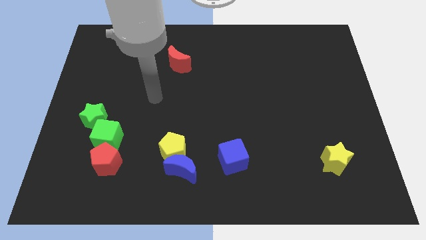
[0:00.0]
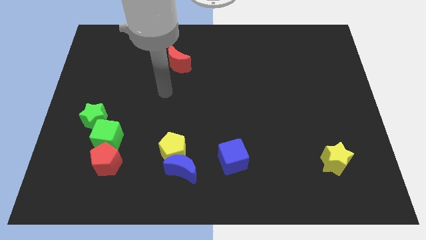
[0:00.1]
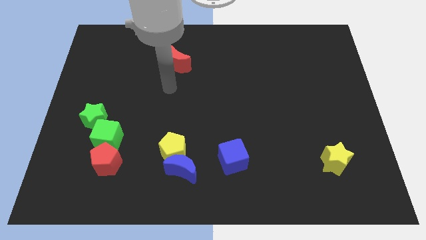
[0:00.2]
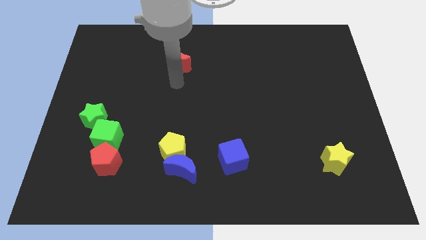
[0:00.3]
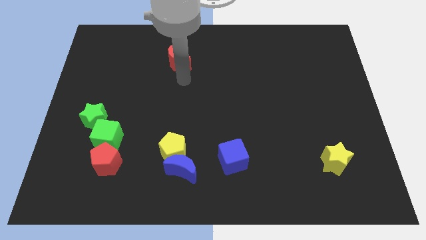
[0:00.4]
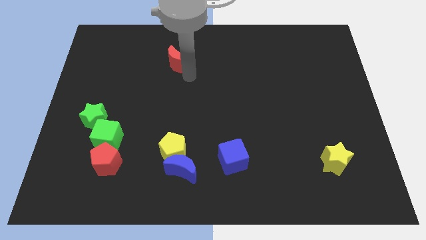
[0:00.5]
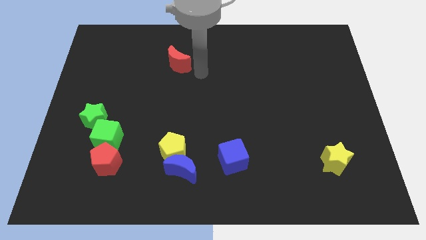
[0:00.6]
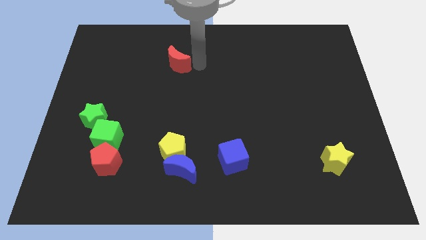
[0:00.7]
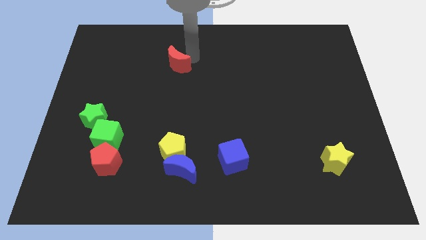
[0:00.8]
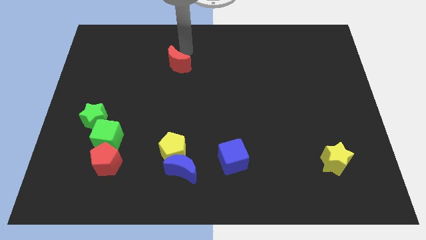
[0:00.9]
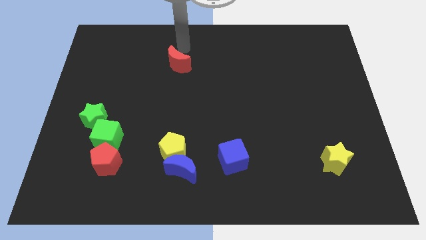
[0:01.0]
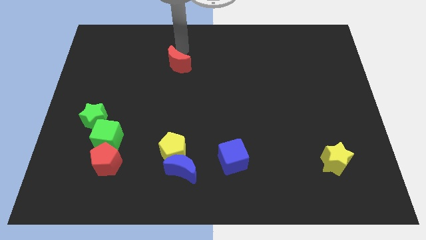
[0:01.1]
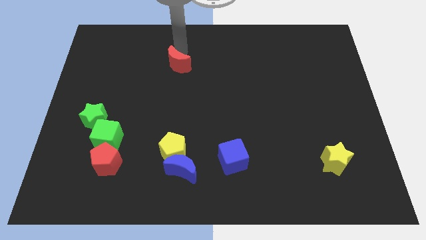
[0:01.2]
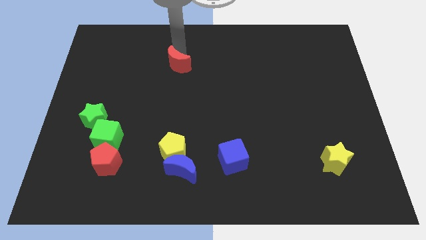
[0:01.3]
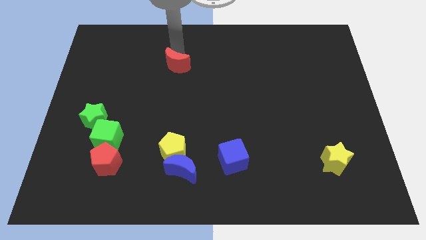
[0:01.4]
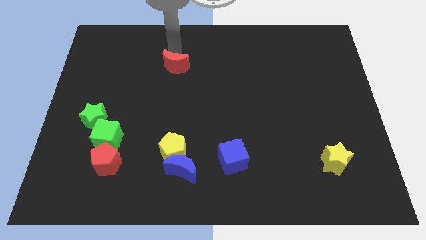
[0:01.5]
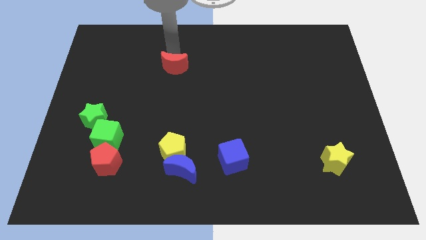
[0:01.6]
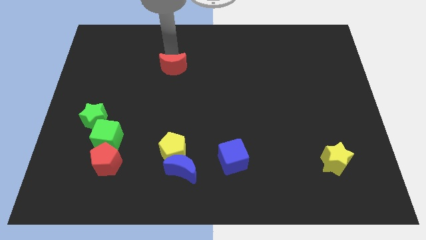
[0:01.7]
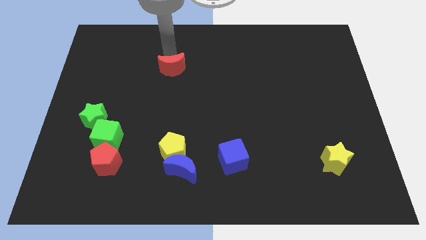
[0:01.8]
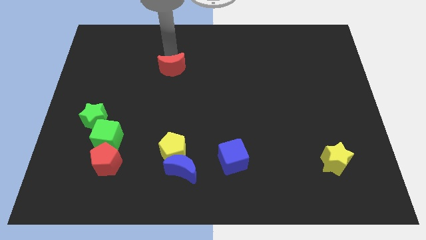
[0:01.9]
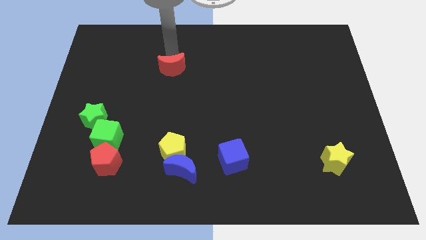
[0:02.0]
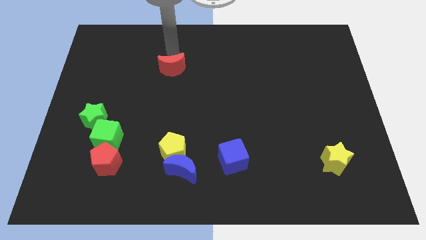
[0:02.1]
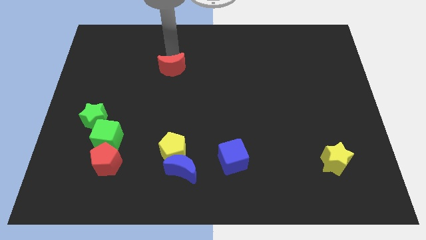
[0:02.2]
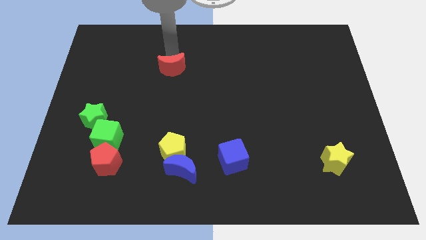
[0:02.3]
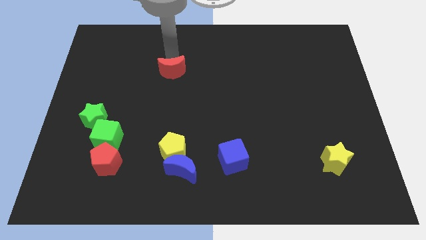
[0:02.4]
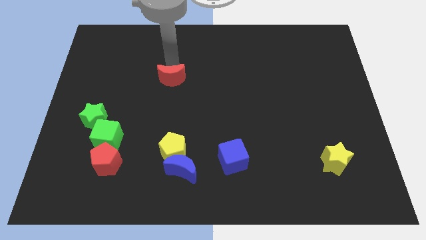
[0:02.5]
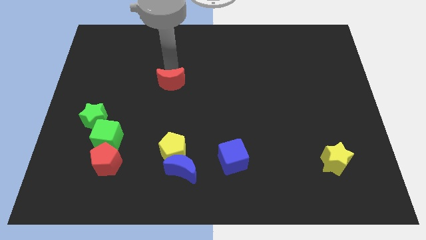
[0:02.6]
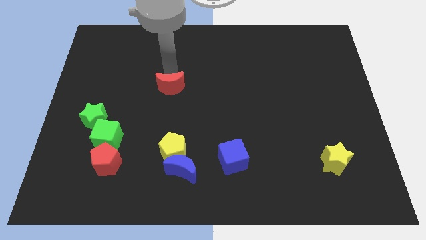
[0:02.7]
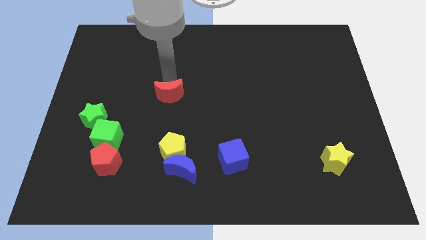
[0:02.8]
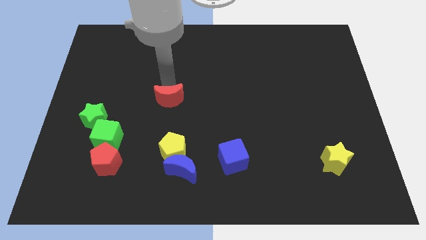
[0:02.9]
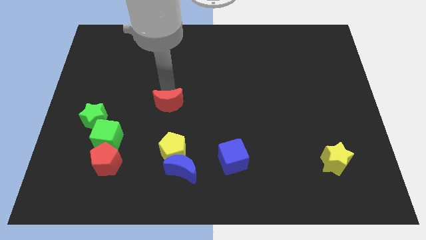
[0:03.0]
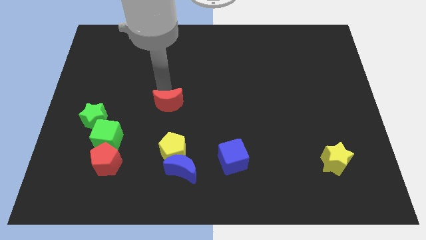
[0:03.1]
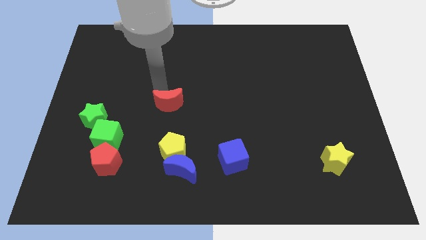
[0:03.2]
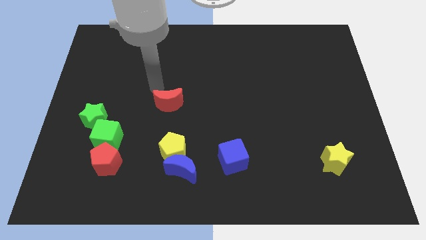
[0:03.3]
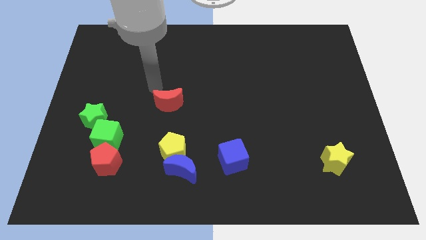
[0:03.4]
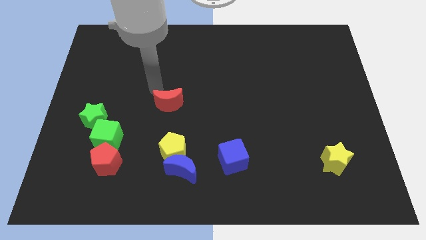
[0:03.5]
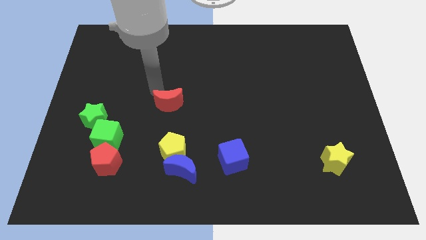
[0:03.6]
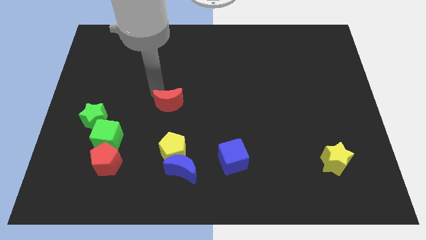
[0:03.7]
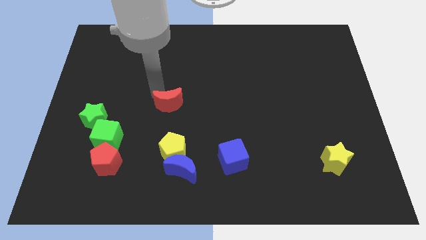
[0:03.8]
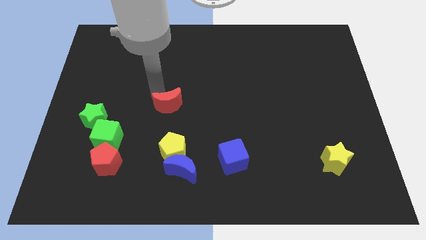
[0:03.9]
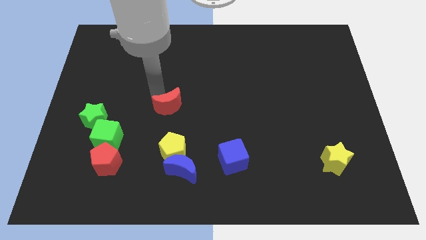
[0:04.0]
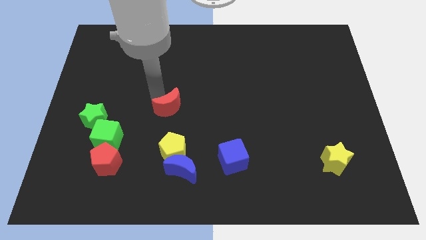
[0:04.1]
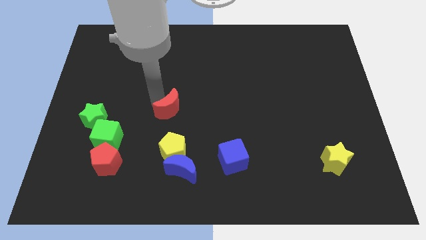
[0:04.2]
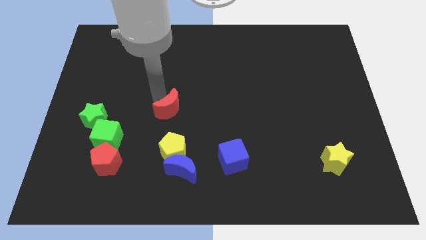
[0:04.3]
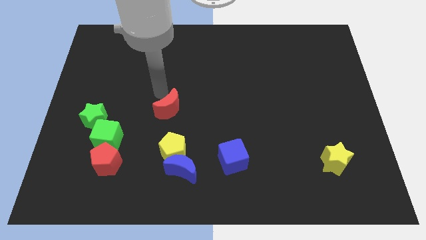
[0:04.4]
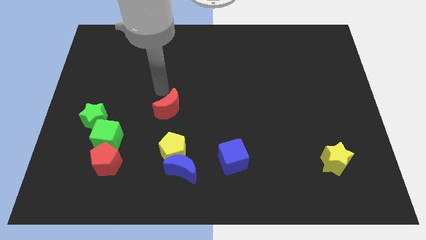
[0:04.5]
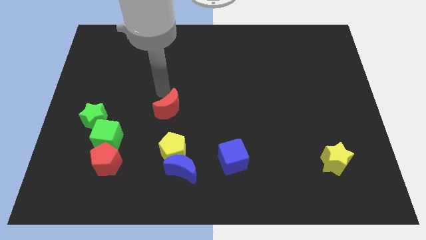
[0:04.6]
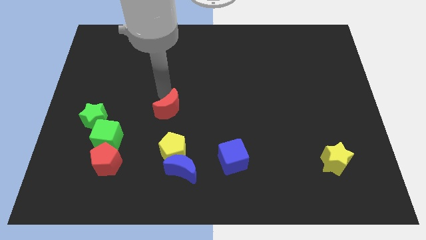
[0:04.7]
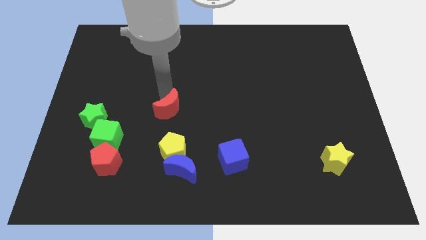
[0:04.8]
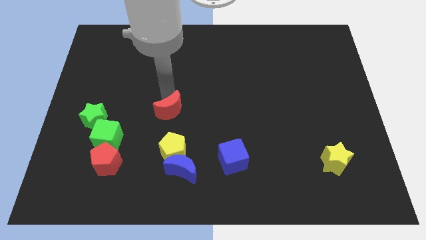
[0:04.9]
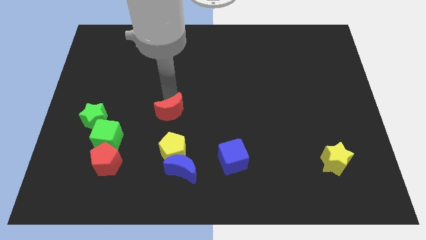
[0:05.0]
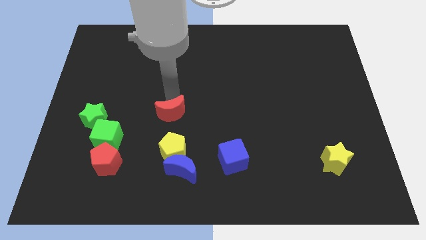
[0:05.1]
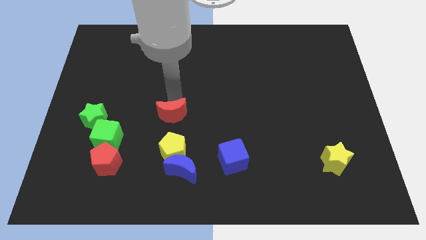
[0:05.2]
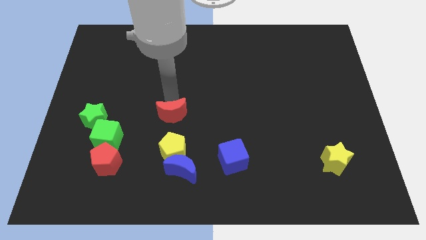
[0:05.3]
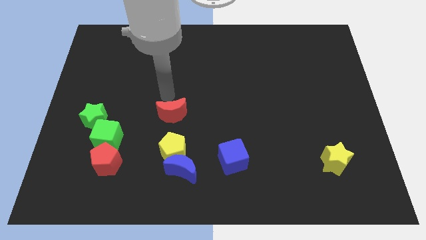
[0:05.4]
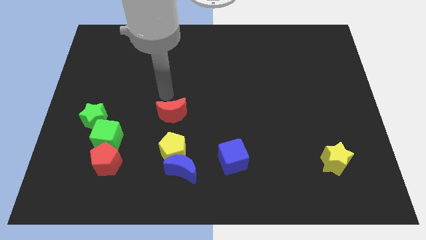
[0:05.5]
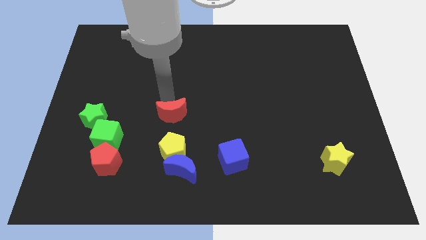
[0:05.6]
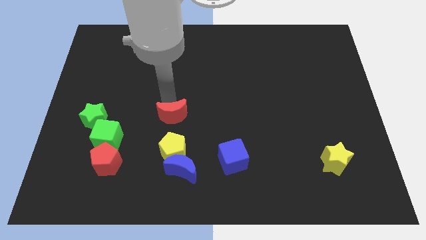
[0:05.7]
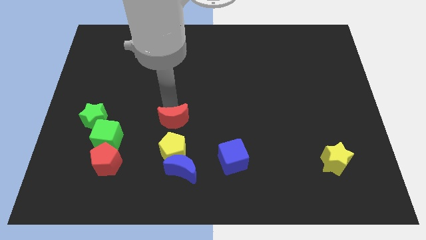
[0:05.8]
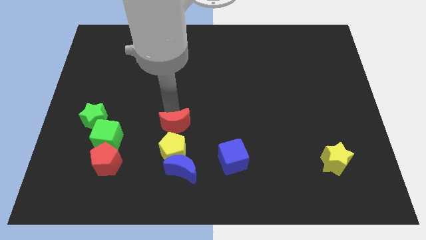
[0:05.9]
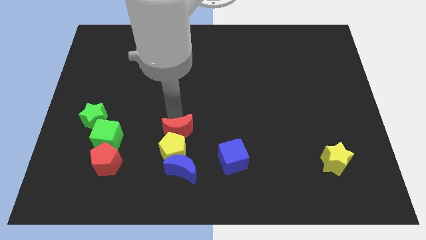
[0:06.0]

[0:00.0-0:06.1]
put the red moon towards the yellow pentagon

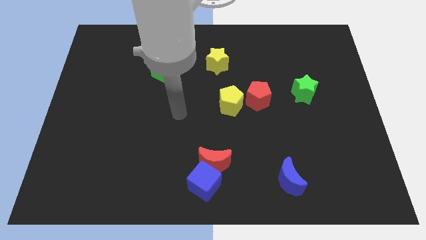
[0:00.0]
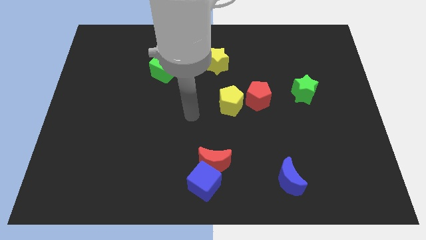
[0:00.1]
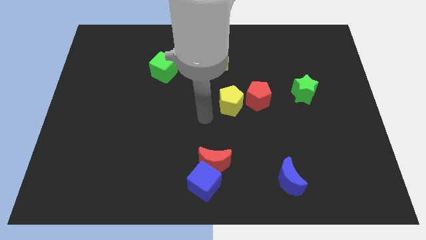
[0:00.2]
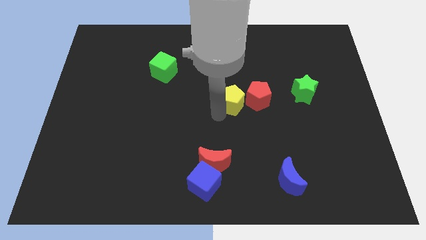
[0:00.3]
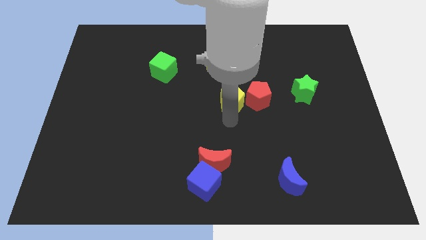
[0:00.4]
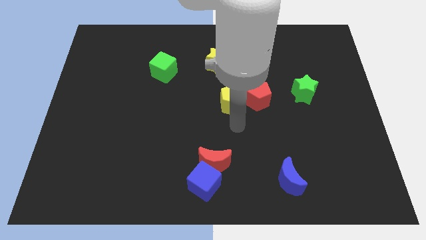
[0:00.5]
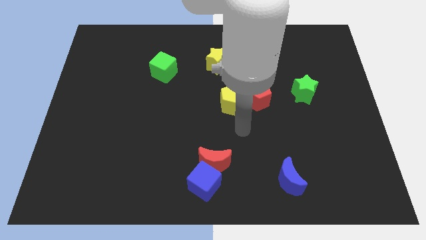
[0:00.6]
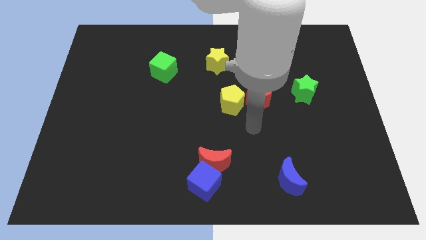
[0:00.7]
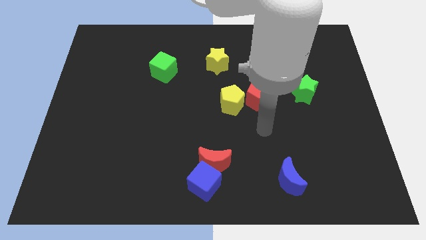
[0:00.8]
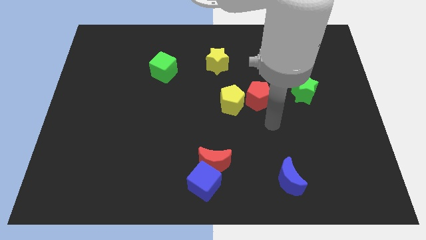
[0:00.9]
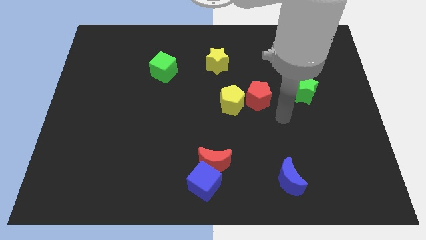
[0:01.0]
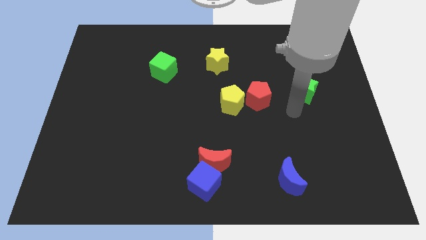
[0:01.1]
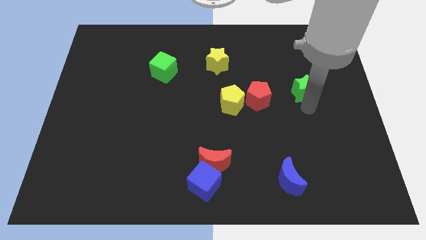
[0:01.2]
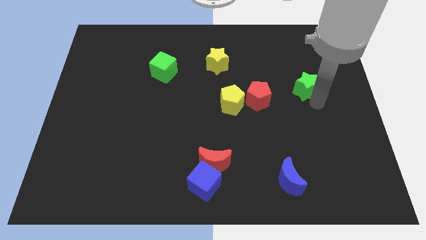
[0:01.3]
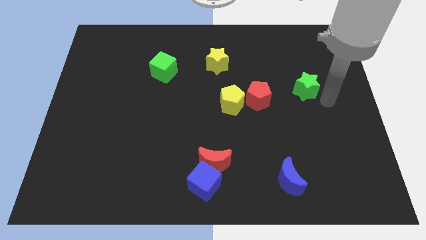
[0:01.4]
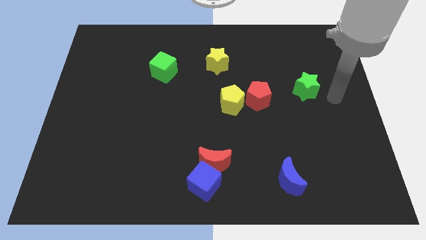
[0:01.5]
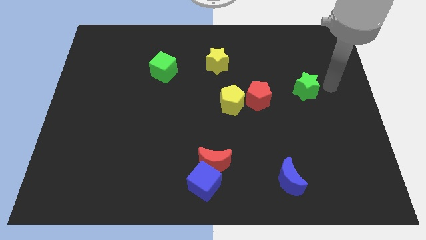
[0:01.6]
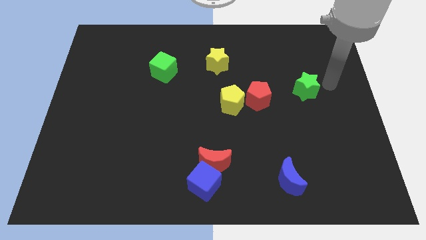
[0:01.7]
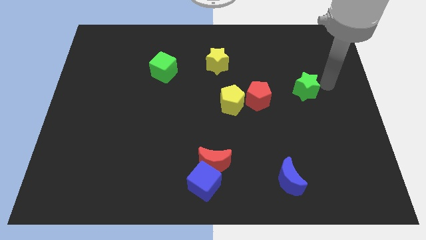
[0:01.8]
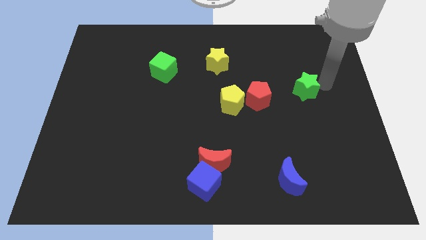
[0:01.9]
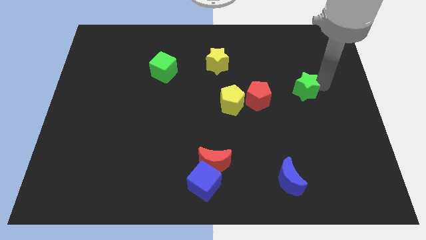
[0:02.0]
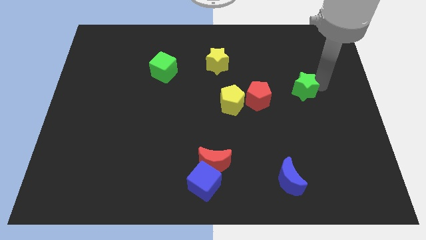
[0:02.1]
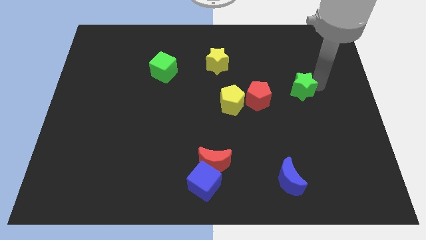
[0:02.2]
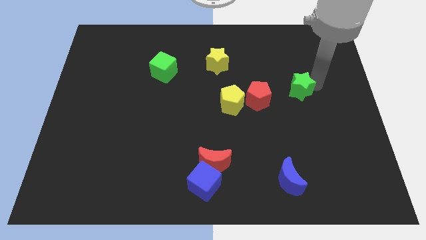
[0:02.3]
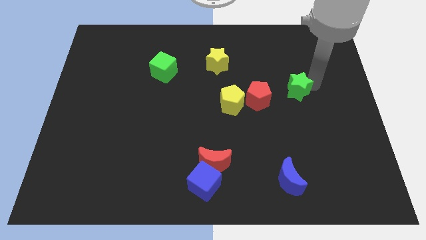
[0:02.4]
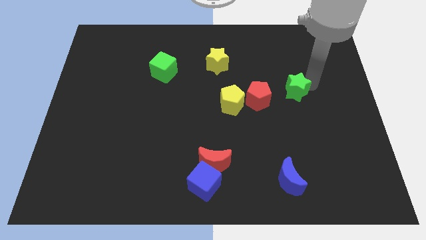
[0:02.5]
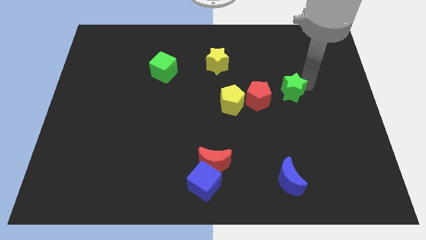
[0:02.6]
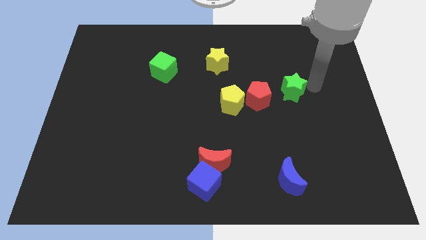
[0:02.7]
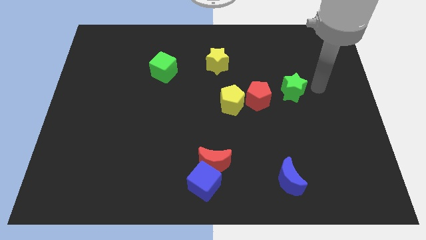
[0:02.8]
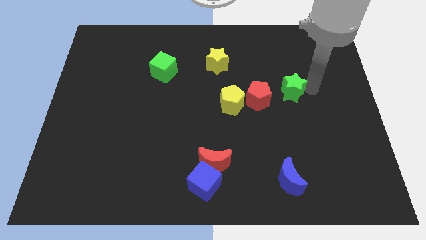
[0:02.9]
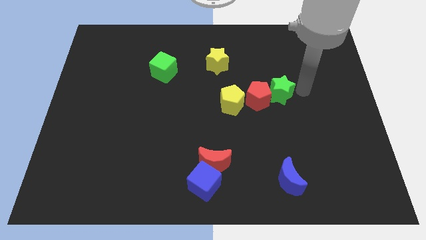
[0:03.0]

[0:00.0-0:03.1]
push the green star next to the red pentagon
